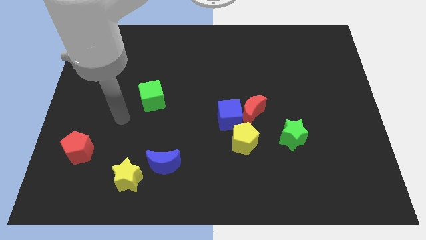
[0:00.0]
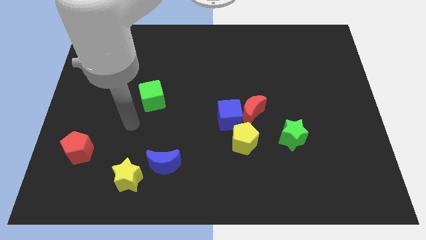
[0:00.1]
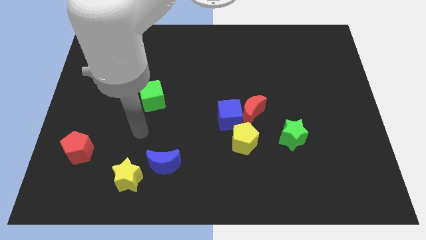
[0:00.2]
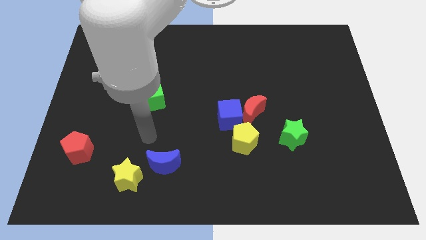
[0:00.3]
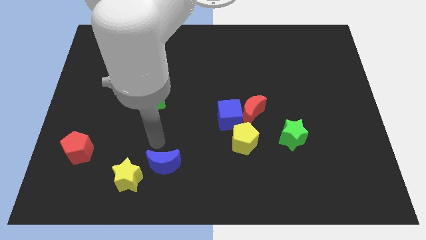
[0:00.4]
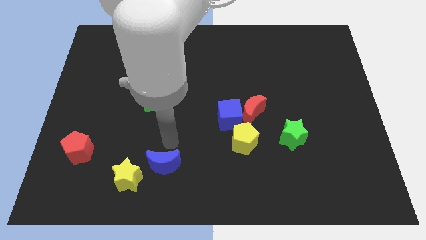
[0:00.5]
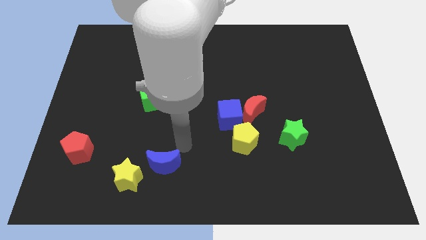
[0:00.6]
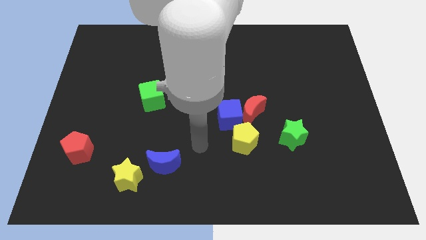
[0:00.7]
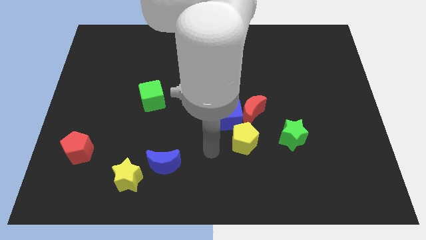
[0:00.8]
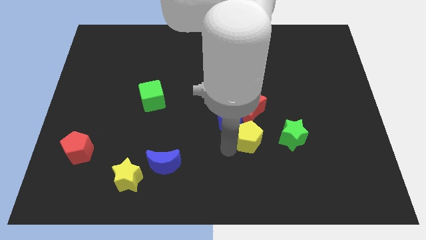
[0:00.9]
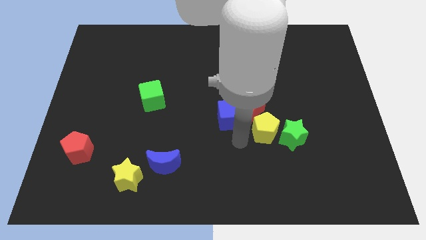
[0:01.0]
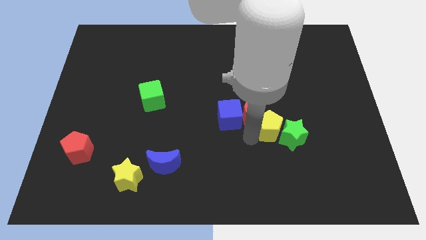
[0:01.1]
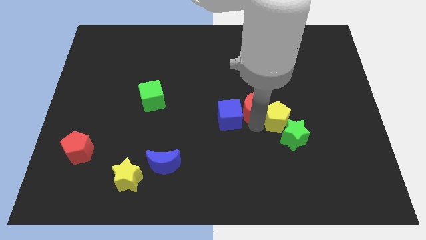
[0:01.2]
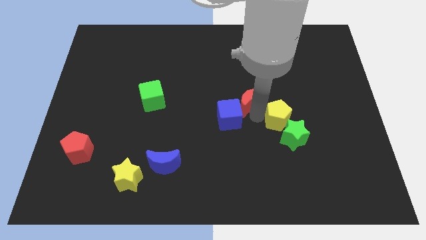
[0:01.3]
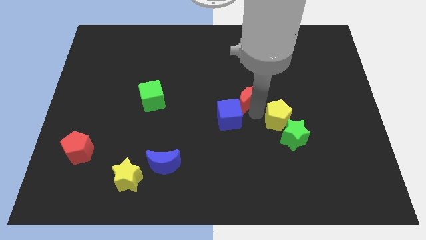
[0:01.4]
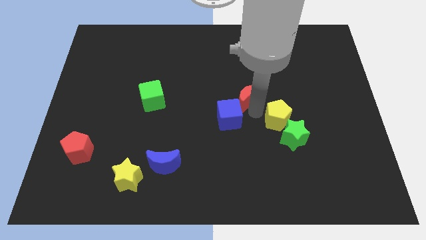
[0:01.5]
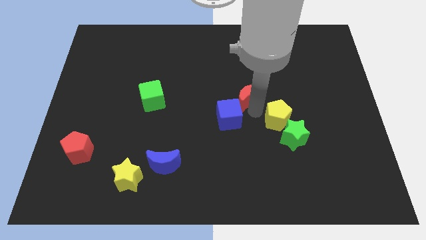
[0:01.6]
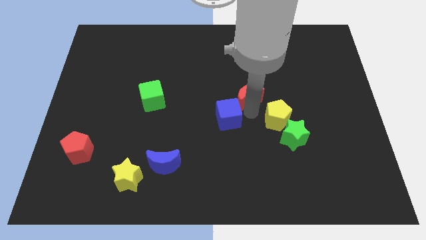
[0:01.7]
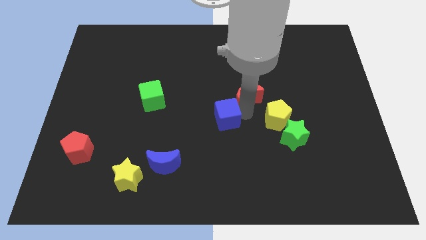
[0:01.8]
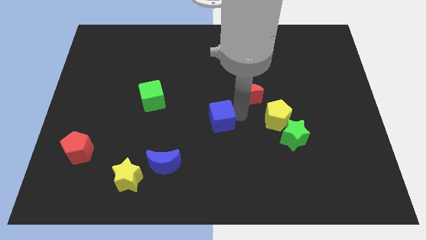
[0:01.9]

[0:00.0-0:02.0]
pull the blue cube apart from the red moon and yellow pentagon

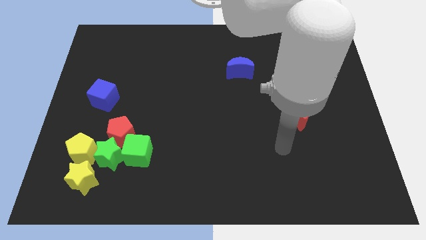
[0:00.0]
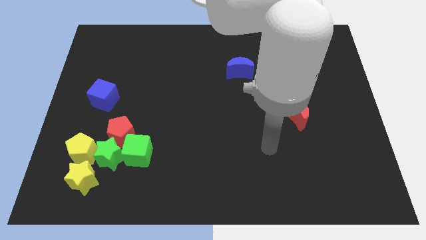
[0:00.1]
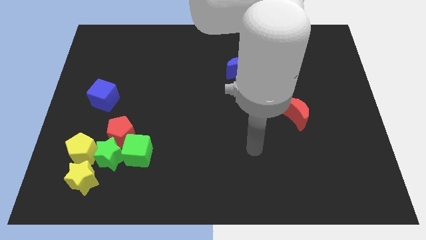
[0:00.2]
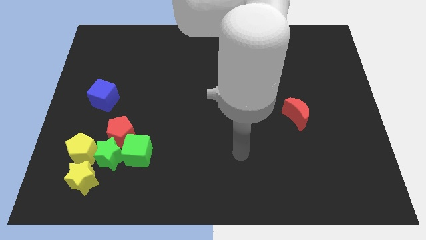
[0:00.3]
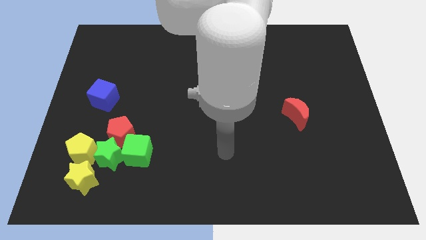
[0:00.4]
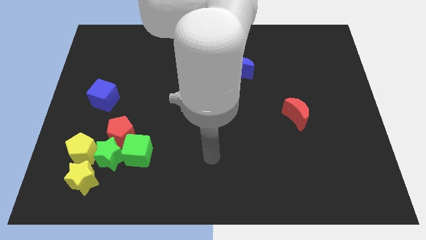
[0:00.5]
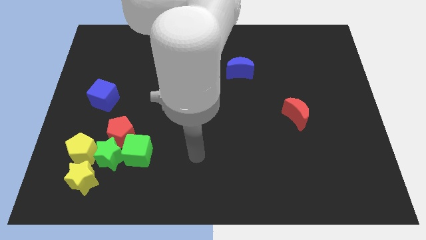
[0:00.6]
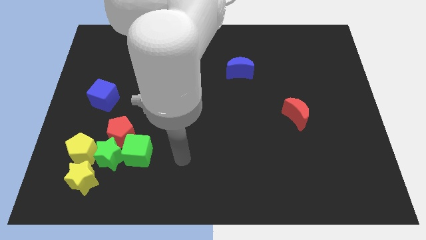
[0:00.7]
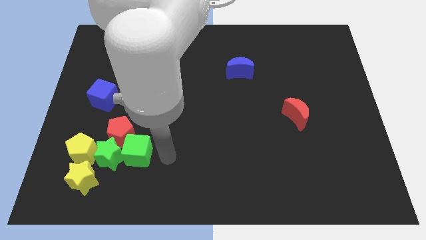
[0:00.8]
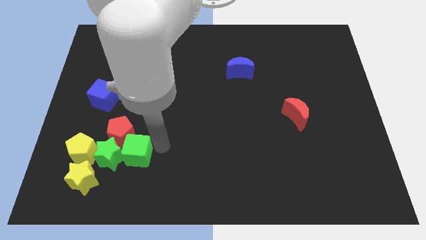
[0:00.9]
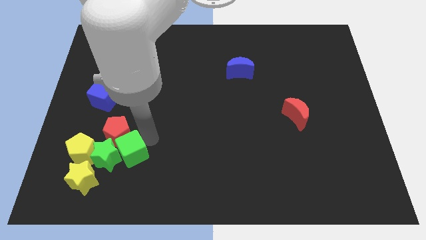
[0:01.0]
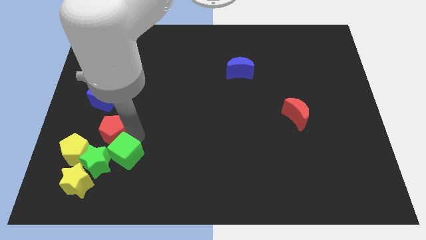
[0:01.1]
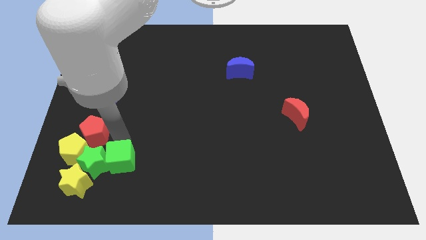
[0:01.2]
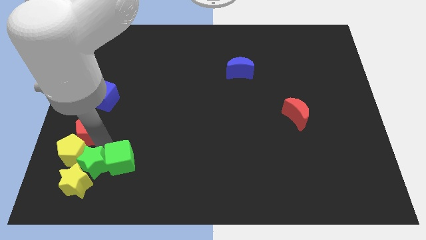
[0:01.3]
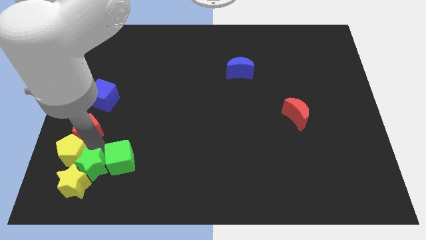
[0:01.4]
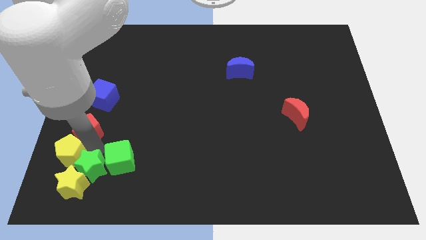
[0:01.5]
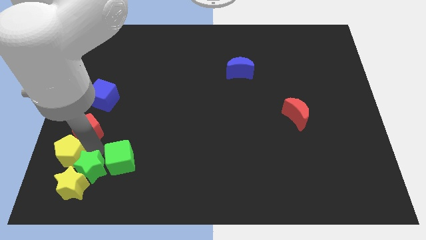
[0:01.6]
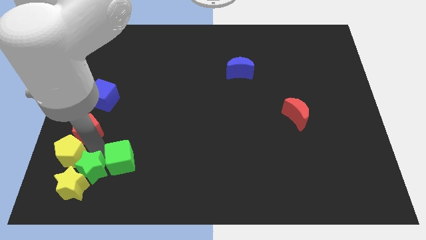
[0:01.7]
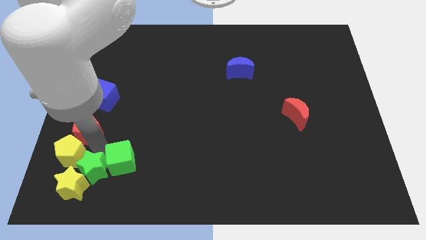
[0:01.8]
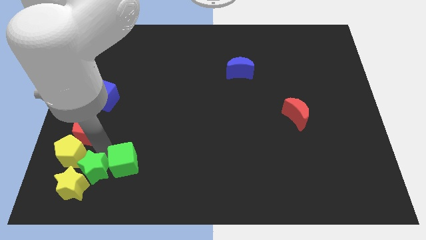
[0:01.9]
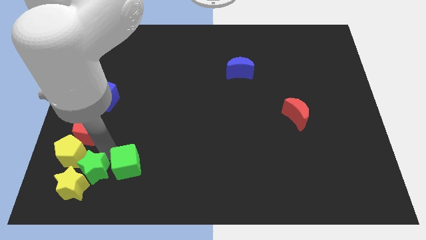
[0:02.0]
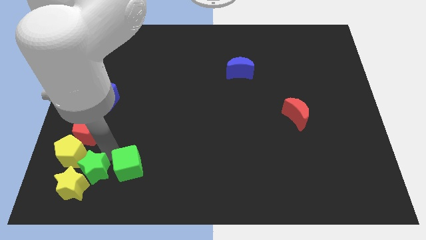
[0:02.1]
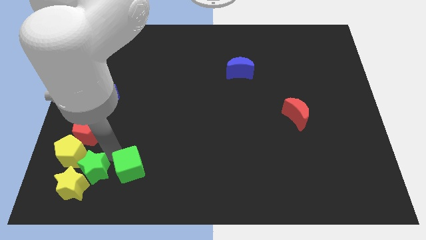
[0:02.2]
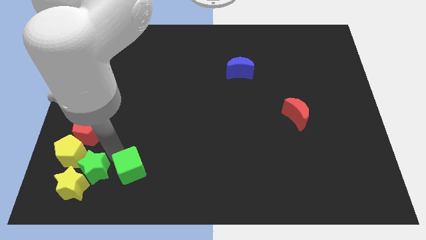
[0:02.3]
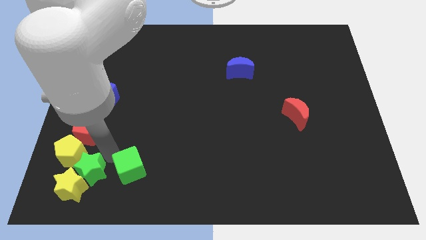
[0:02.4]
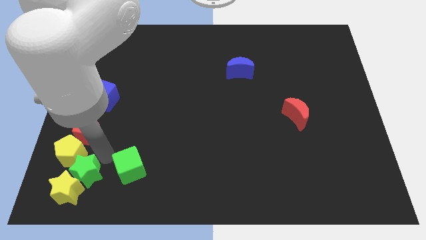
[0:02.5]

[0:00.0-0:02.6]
separate the green cube from the green star and red pentagon

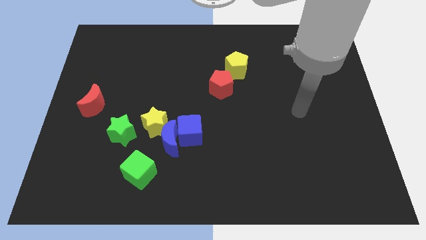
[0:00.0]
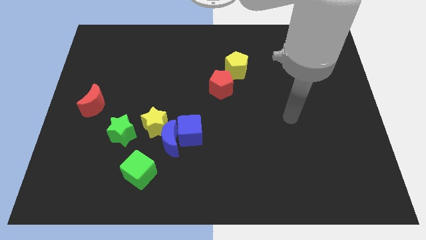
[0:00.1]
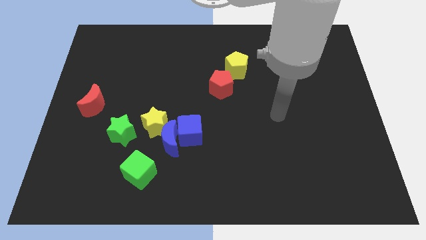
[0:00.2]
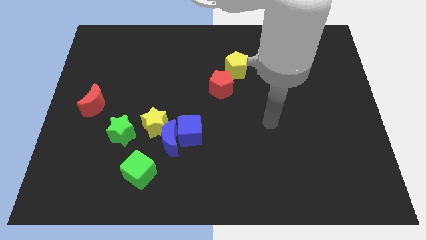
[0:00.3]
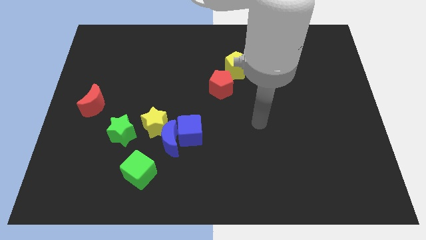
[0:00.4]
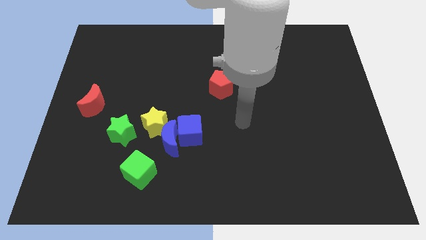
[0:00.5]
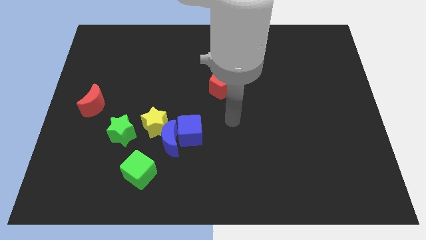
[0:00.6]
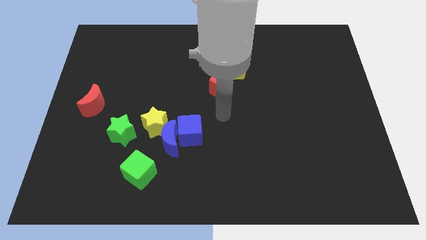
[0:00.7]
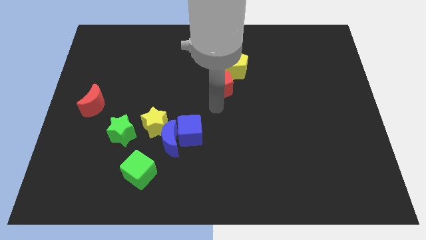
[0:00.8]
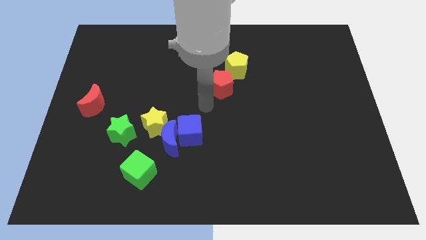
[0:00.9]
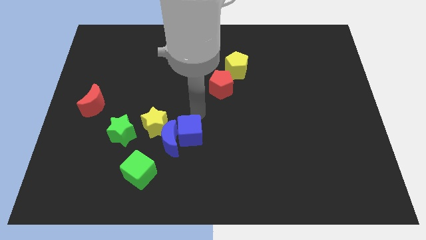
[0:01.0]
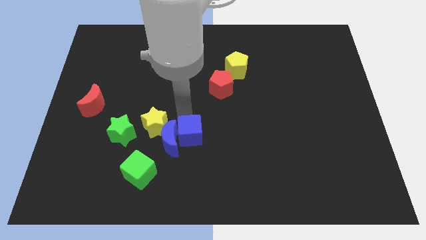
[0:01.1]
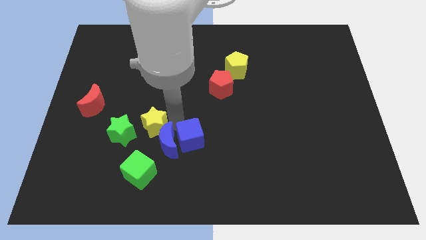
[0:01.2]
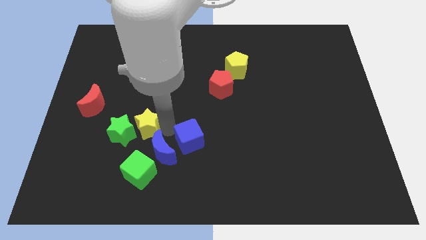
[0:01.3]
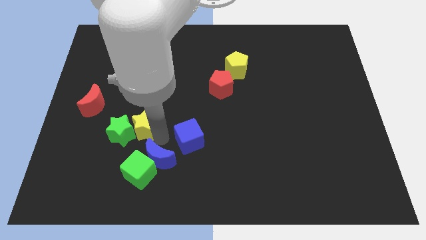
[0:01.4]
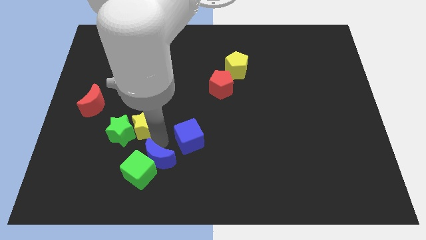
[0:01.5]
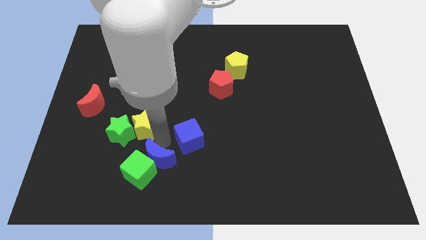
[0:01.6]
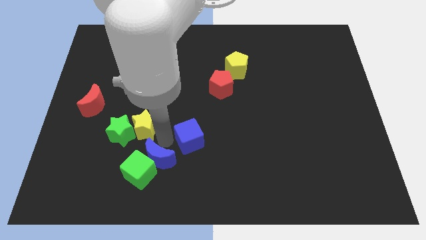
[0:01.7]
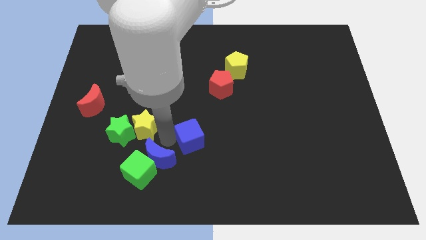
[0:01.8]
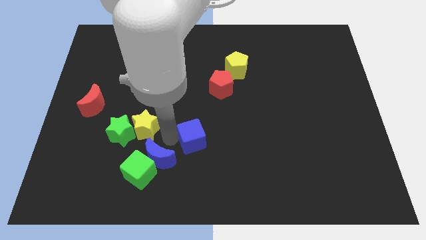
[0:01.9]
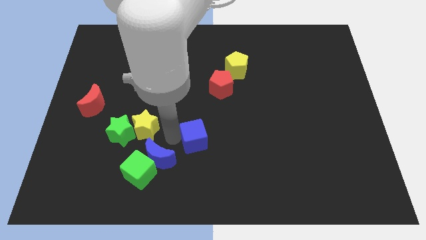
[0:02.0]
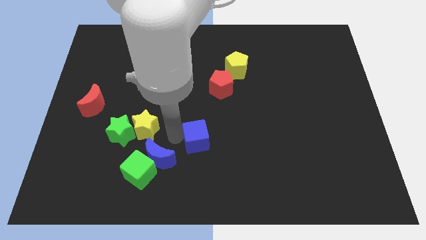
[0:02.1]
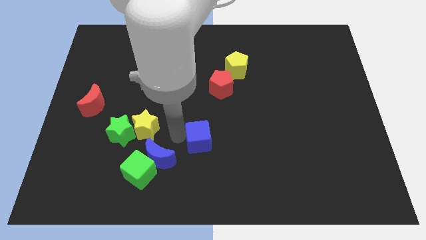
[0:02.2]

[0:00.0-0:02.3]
pull the blue cube apart from the blue moon and yellow star

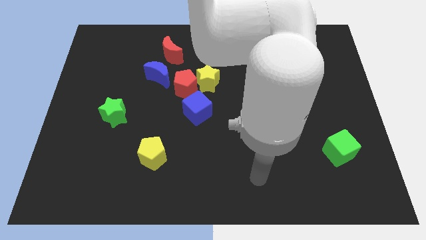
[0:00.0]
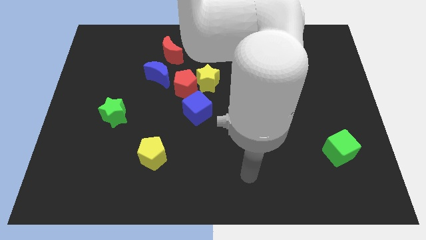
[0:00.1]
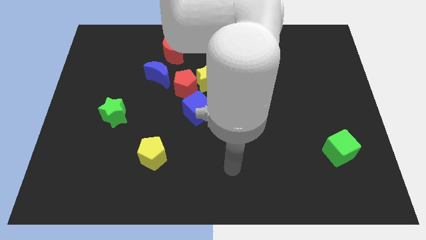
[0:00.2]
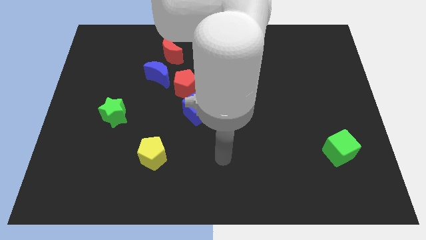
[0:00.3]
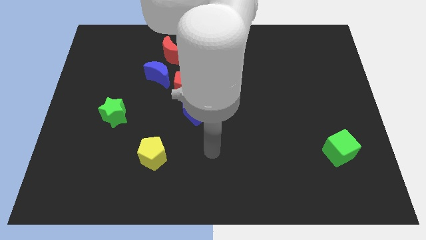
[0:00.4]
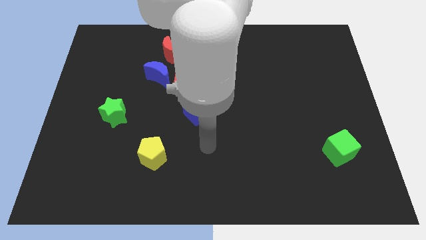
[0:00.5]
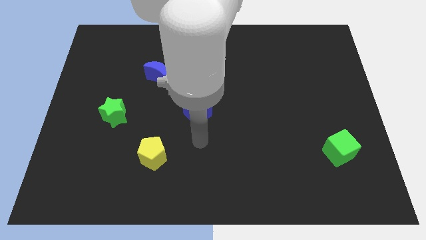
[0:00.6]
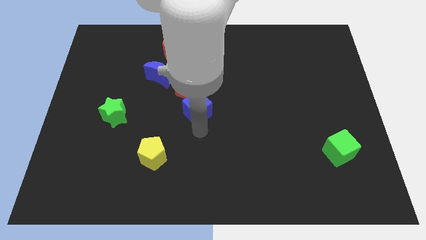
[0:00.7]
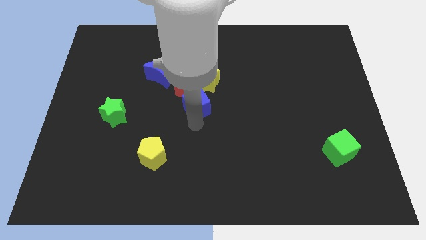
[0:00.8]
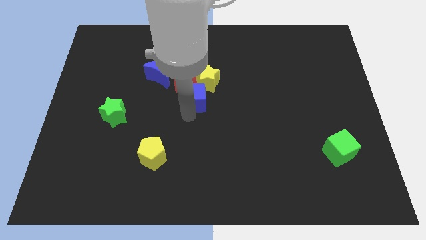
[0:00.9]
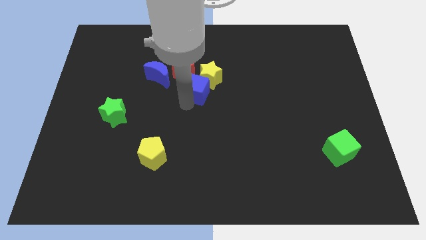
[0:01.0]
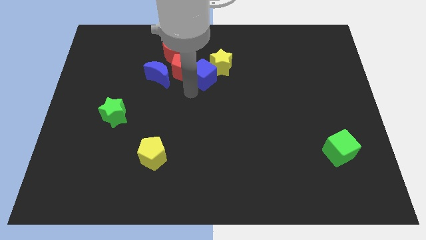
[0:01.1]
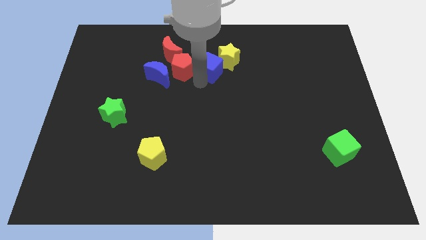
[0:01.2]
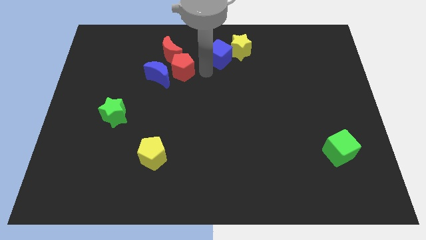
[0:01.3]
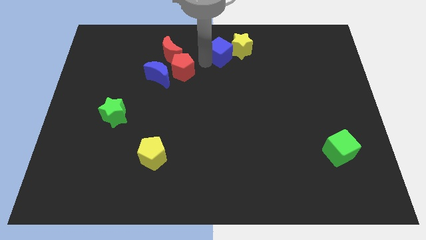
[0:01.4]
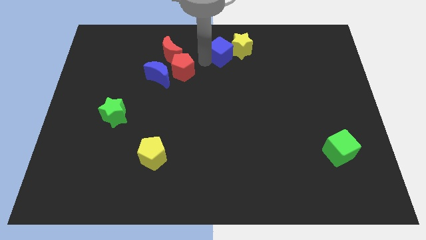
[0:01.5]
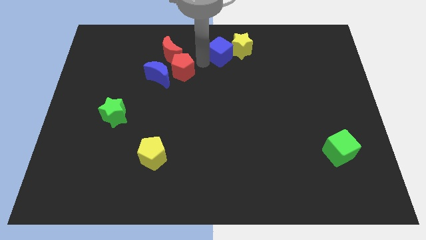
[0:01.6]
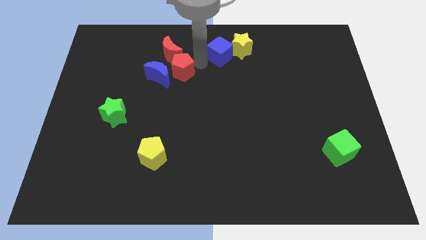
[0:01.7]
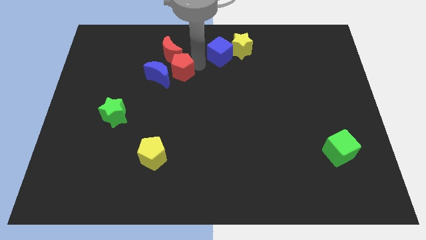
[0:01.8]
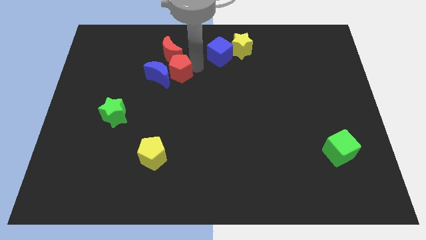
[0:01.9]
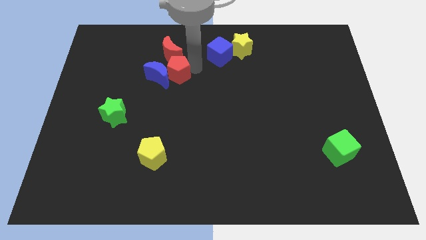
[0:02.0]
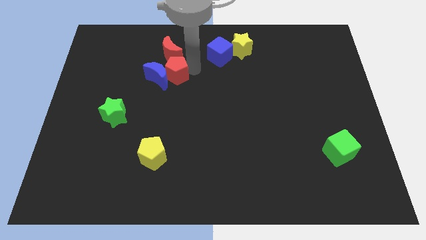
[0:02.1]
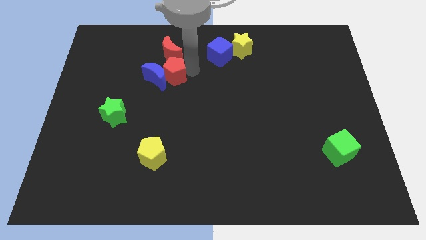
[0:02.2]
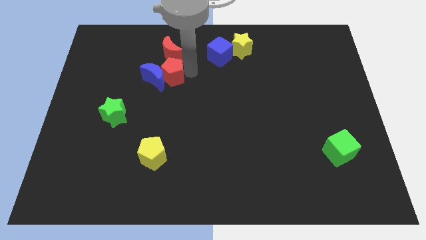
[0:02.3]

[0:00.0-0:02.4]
move the red pentagon away from the yellow star, blue moon, and blue cube
